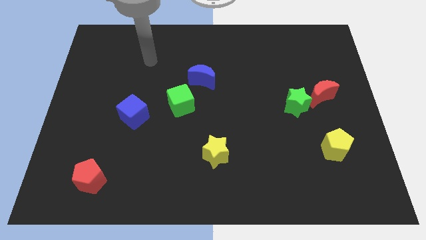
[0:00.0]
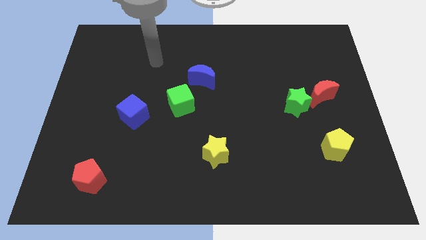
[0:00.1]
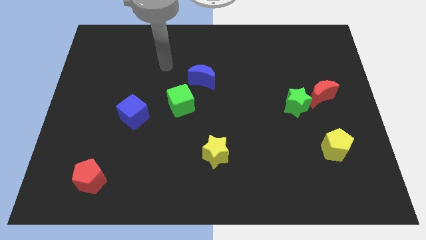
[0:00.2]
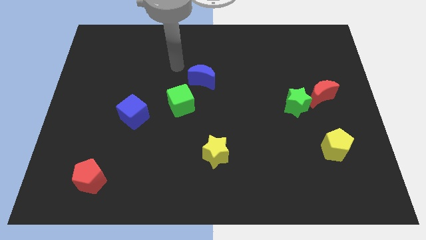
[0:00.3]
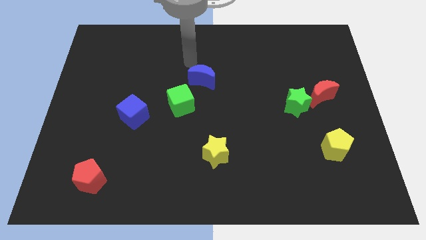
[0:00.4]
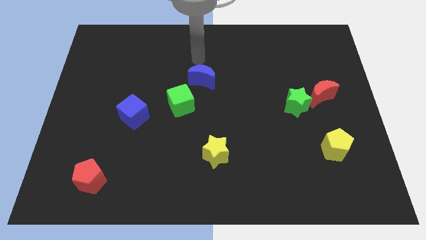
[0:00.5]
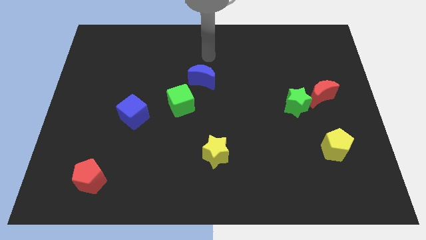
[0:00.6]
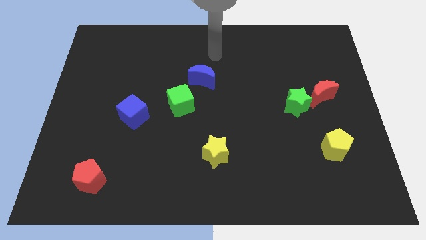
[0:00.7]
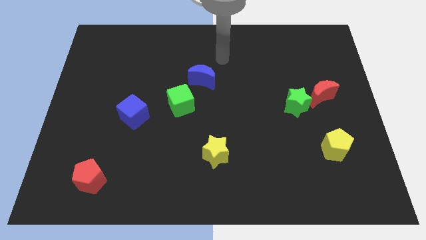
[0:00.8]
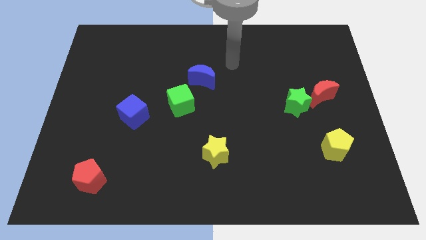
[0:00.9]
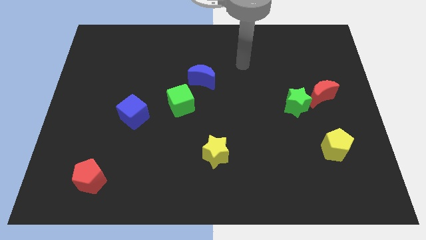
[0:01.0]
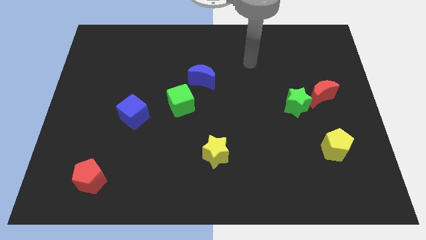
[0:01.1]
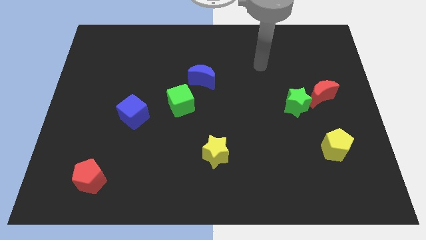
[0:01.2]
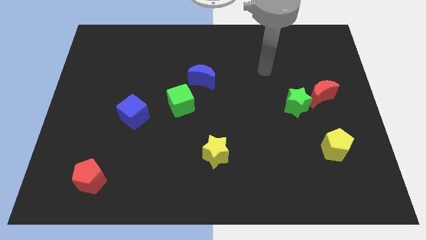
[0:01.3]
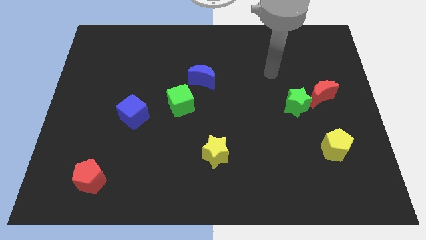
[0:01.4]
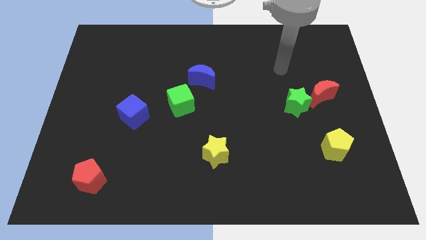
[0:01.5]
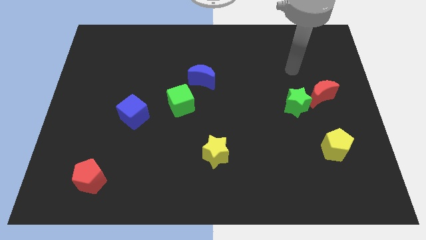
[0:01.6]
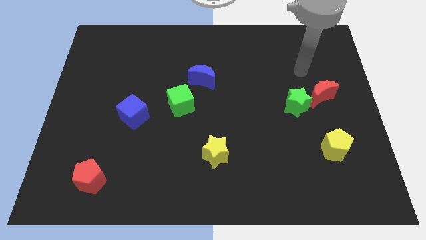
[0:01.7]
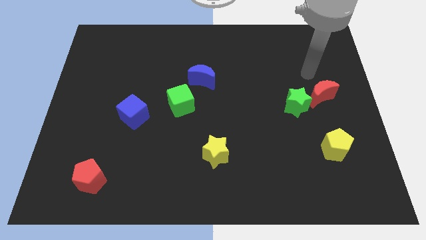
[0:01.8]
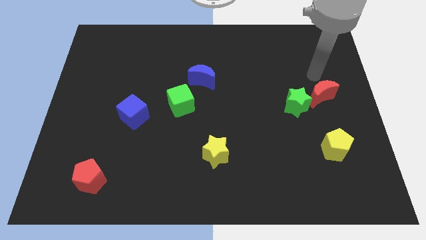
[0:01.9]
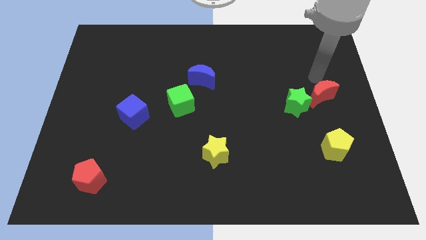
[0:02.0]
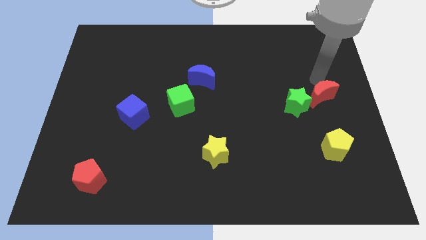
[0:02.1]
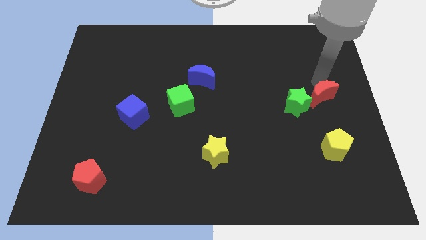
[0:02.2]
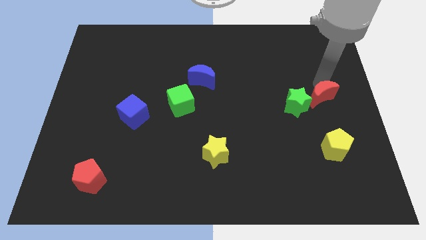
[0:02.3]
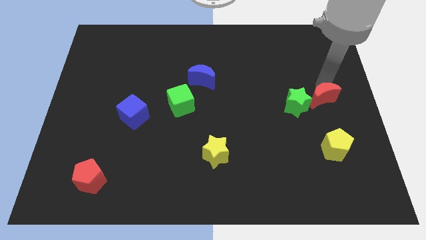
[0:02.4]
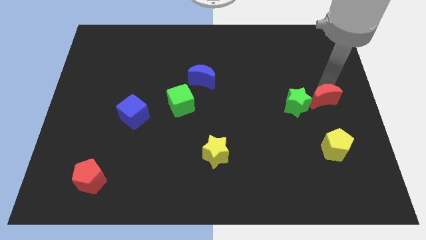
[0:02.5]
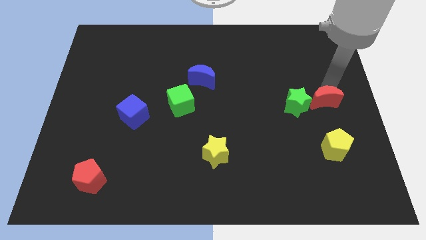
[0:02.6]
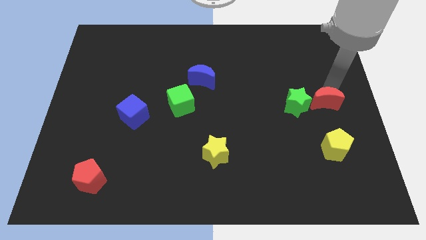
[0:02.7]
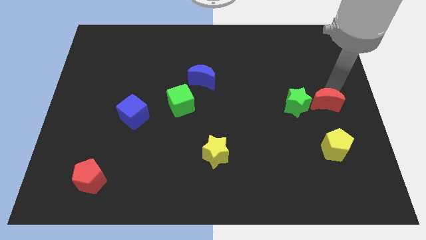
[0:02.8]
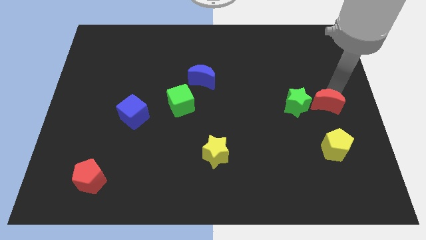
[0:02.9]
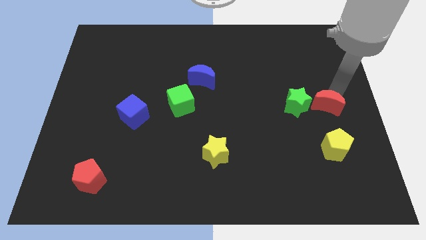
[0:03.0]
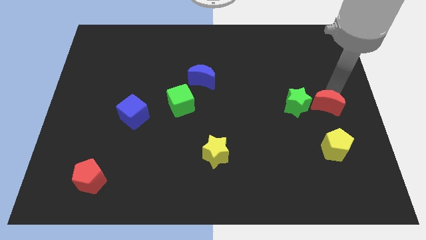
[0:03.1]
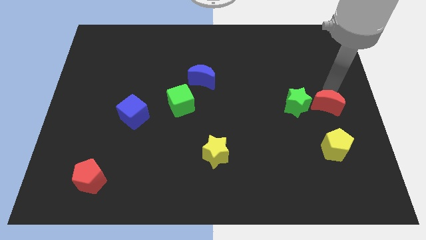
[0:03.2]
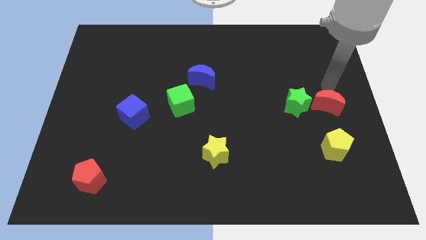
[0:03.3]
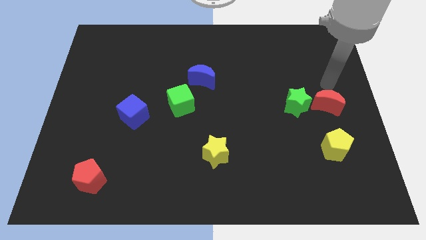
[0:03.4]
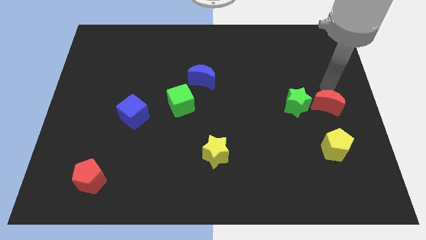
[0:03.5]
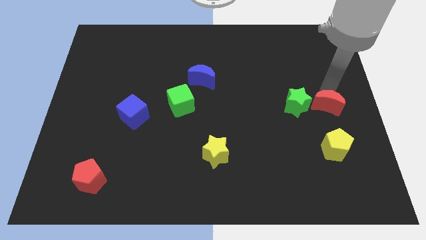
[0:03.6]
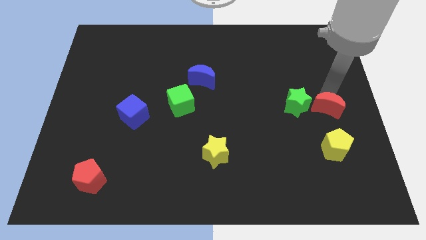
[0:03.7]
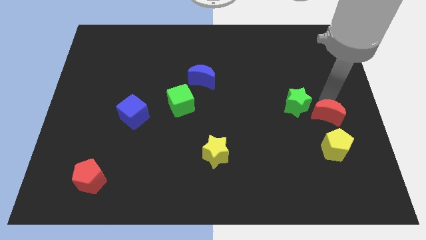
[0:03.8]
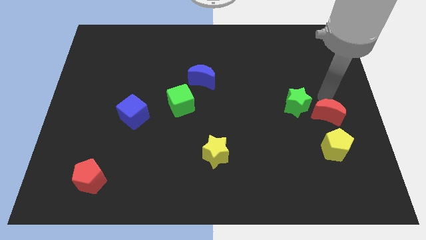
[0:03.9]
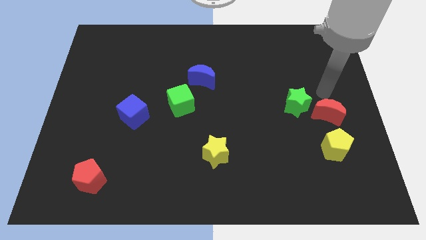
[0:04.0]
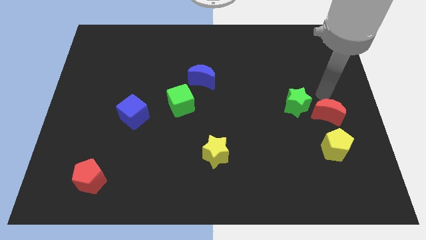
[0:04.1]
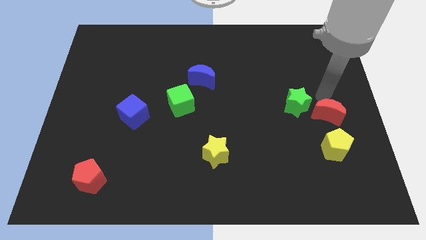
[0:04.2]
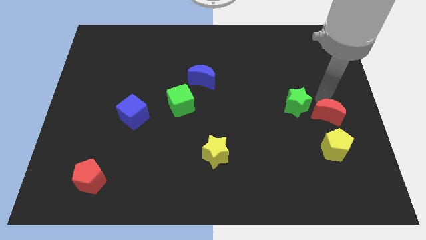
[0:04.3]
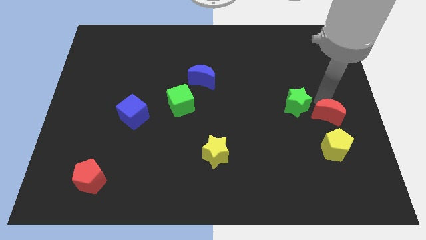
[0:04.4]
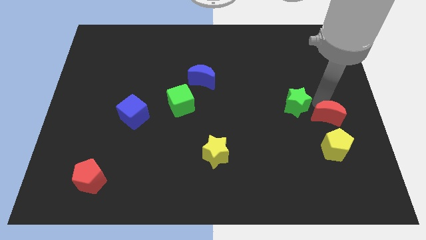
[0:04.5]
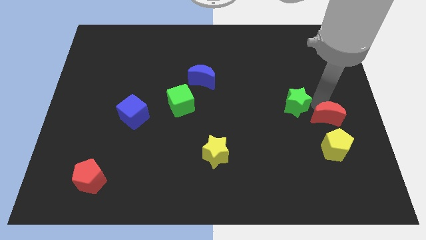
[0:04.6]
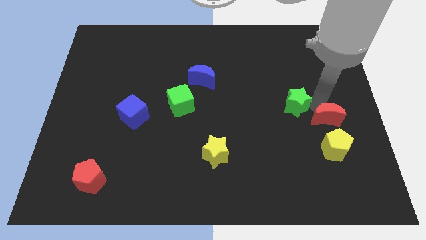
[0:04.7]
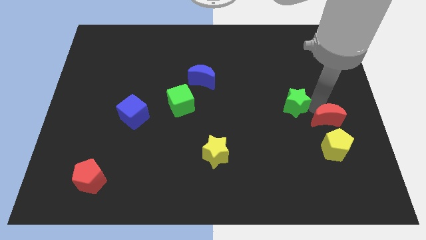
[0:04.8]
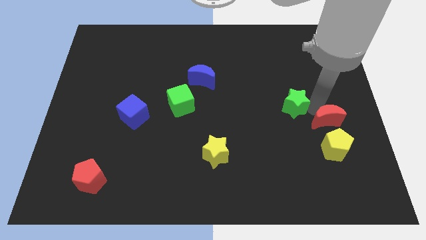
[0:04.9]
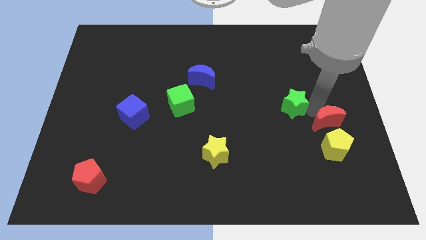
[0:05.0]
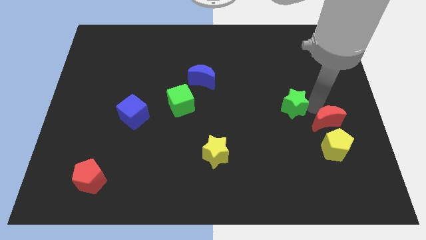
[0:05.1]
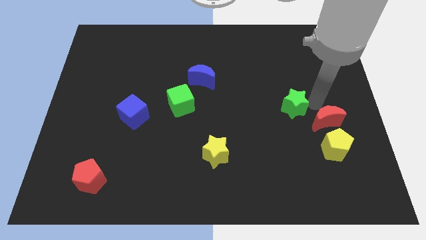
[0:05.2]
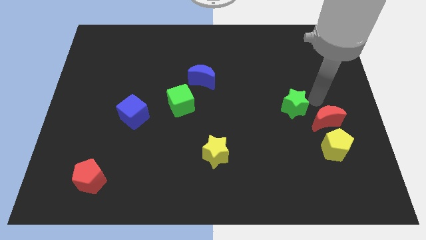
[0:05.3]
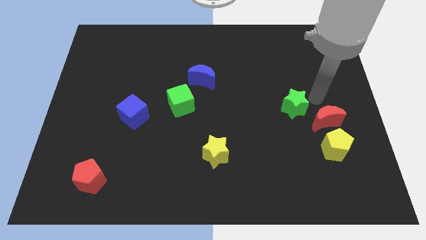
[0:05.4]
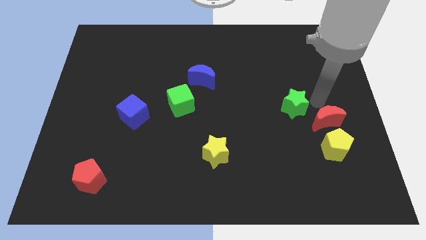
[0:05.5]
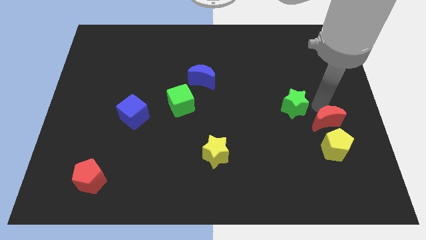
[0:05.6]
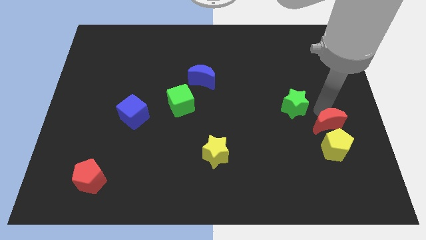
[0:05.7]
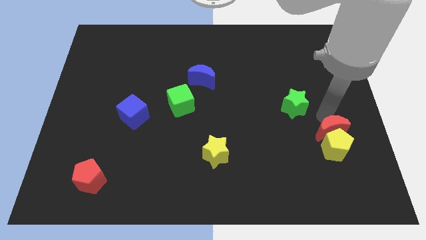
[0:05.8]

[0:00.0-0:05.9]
put the red moon towards the yellow pentagon
